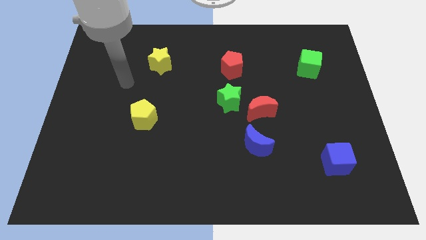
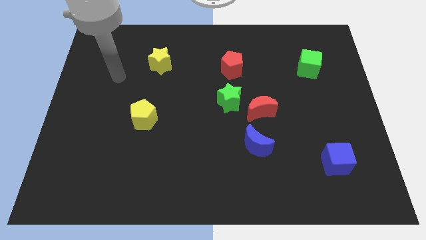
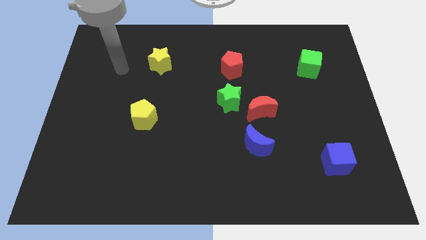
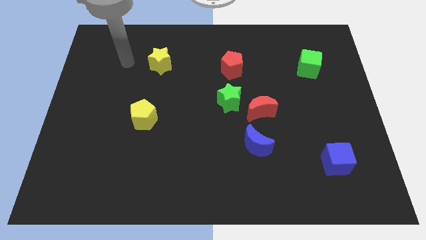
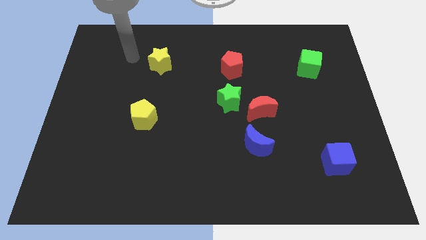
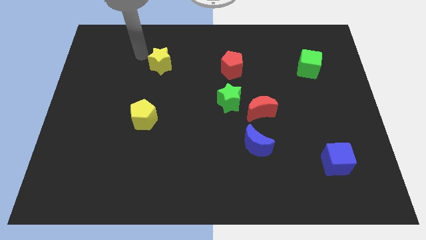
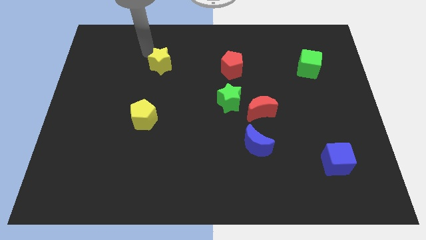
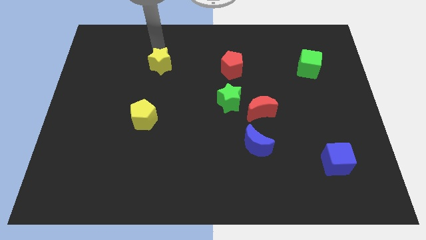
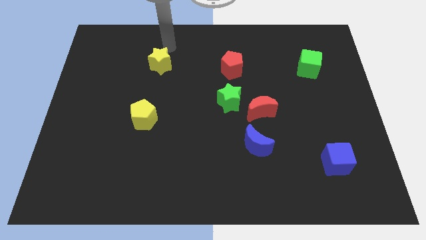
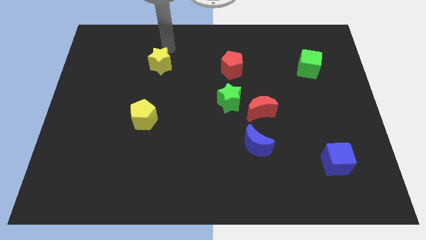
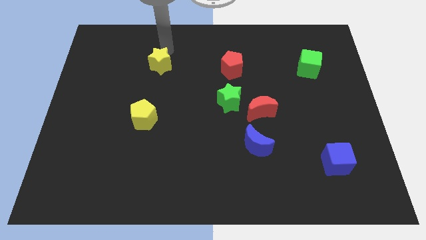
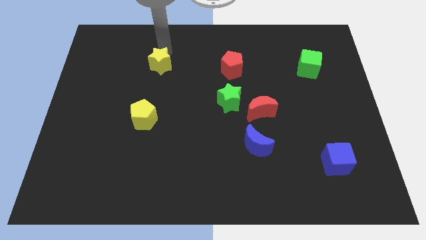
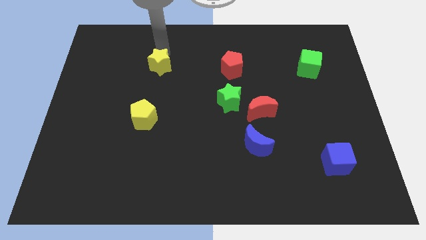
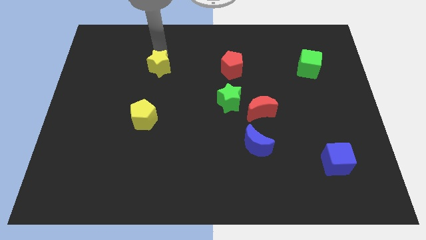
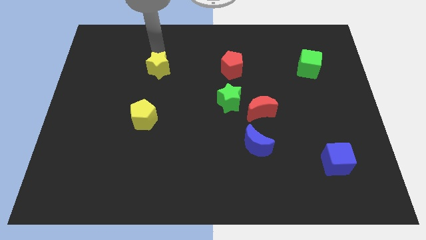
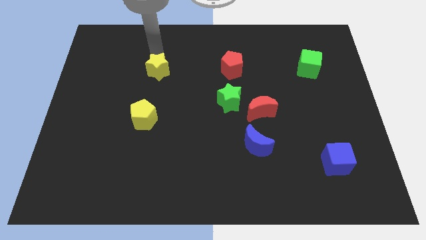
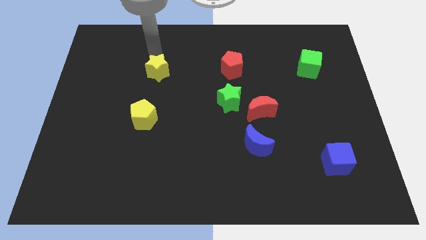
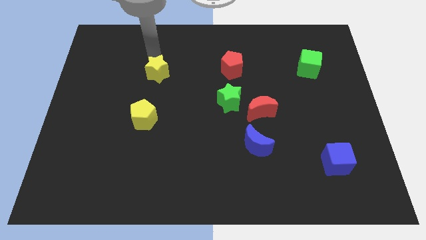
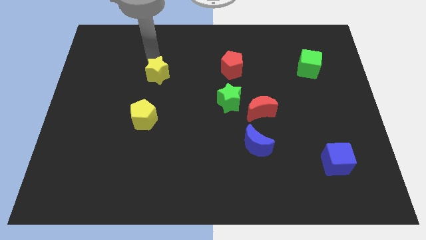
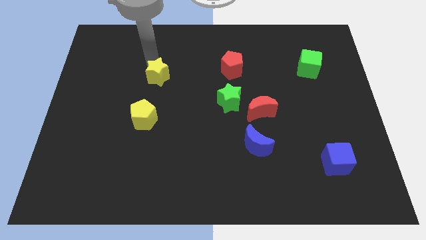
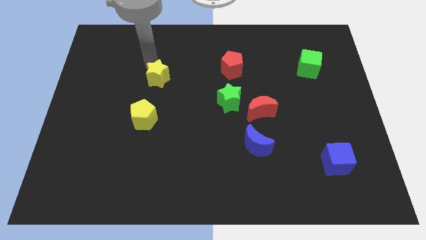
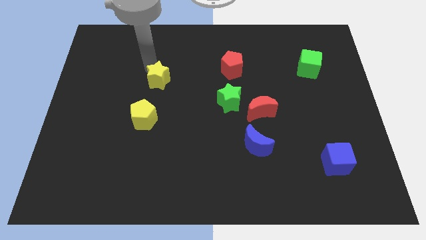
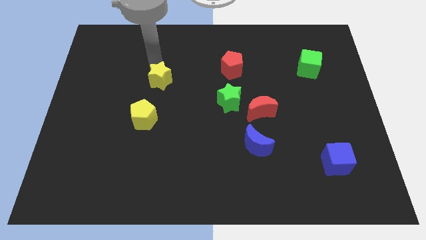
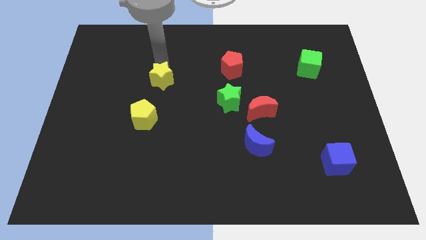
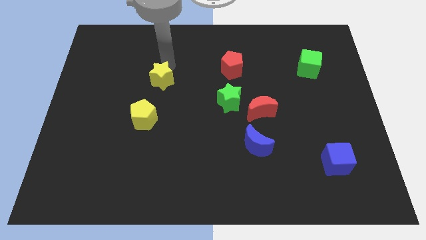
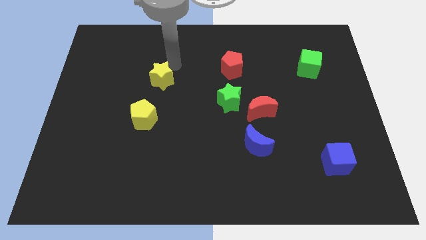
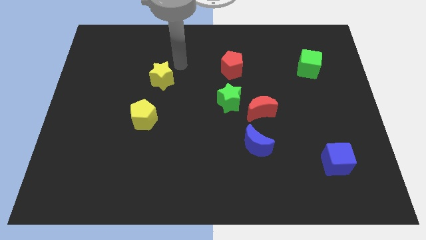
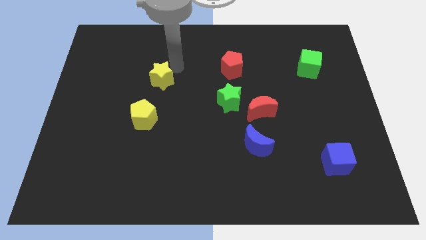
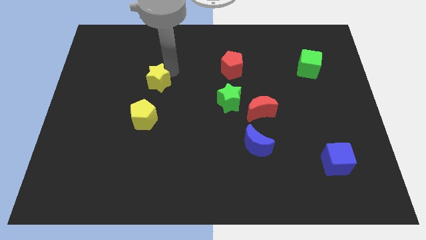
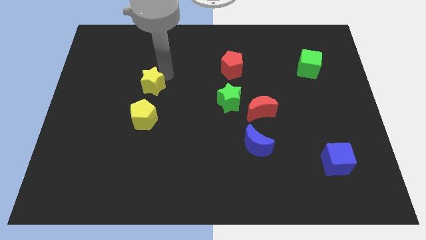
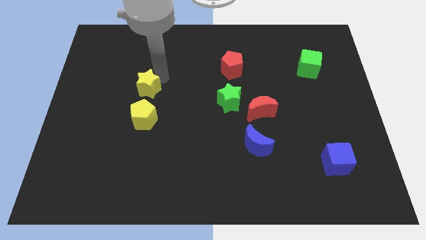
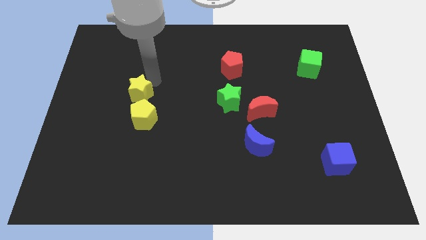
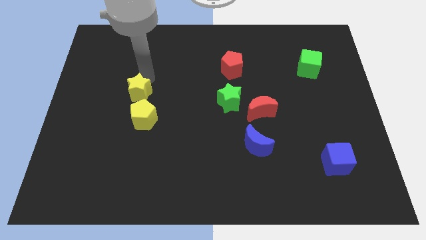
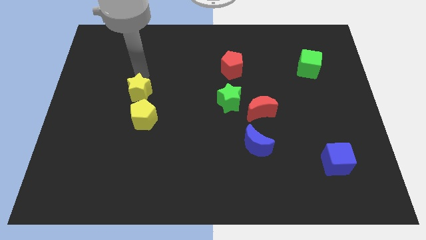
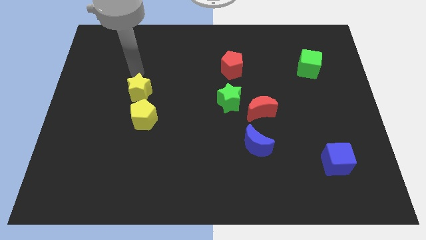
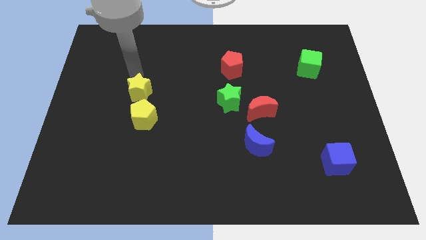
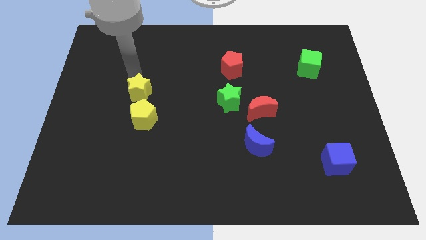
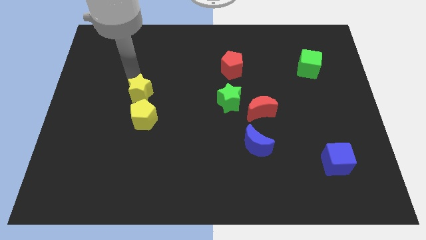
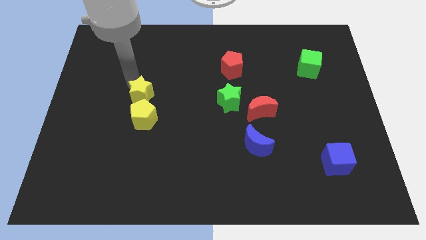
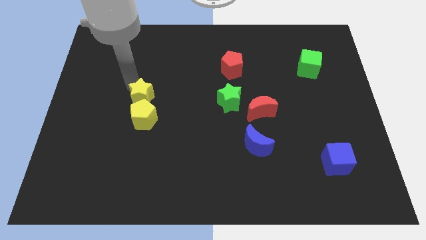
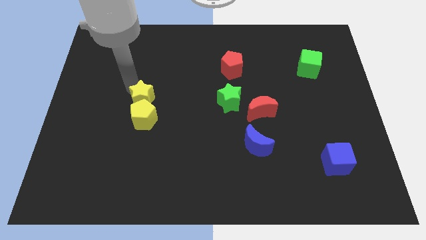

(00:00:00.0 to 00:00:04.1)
push the yellow star to the yellow pentagon

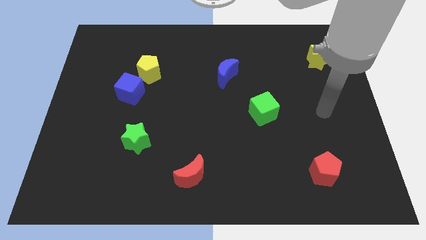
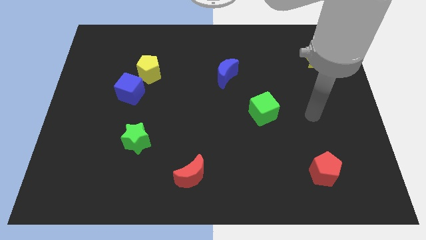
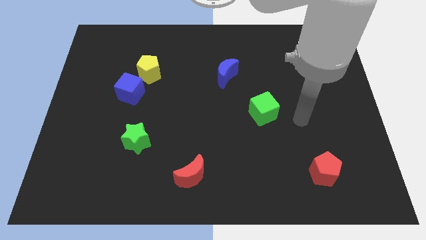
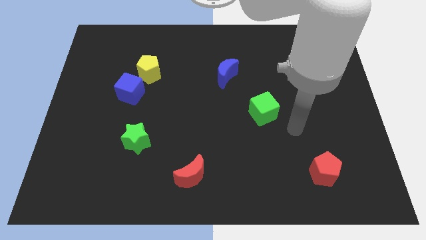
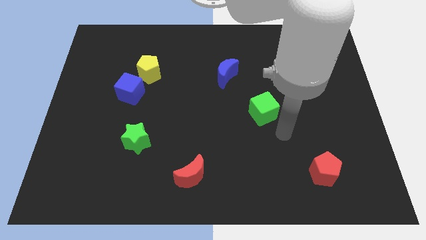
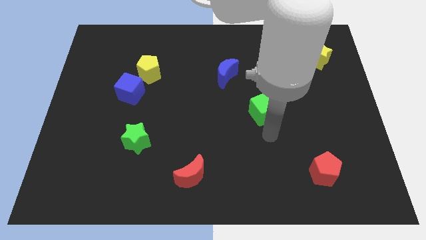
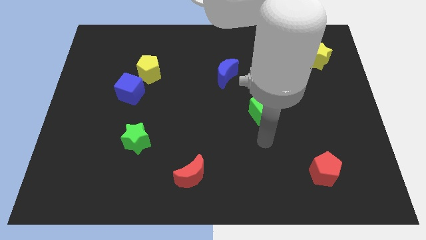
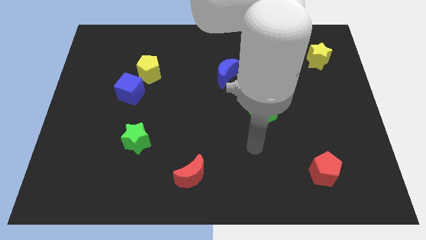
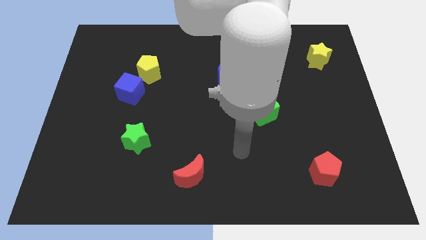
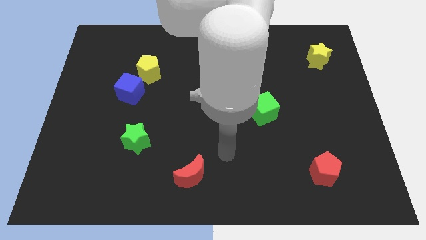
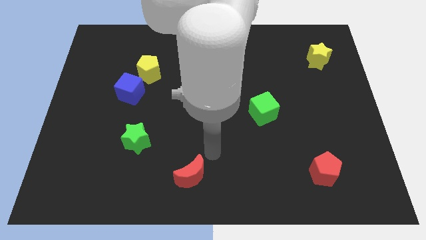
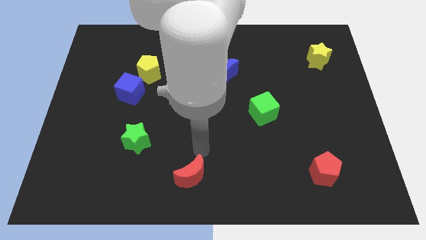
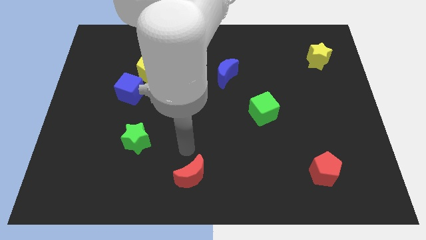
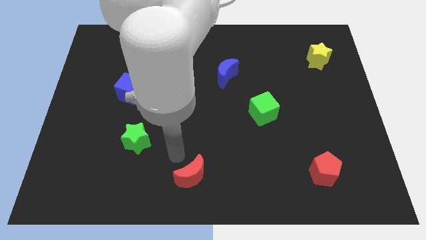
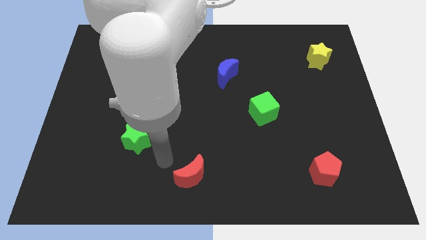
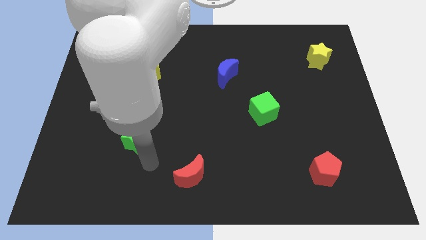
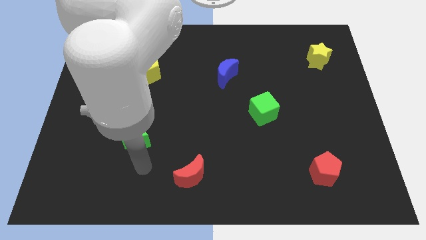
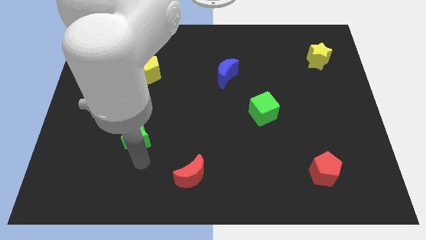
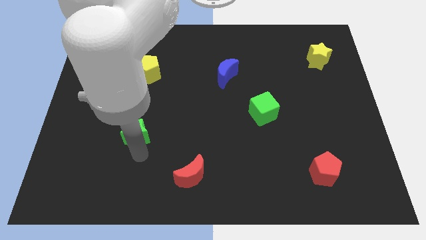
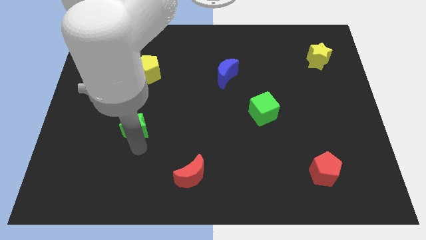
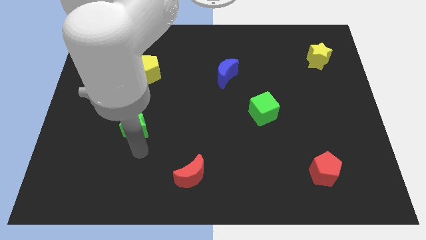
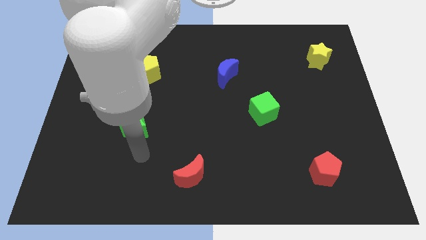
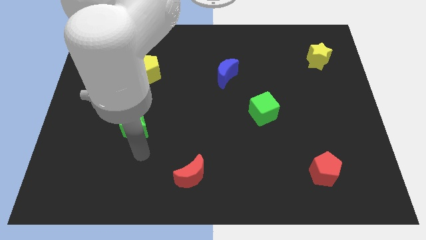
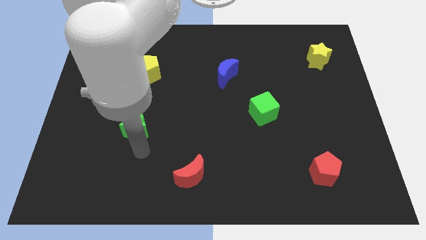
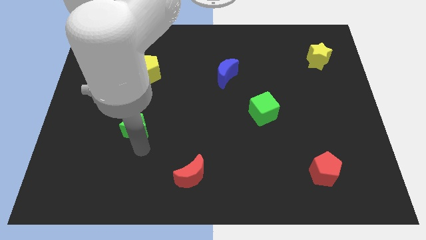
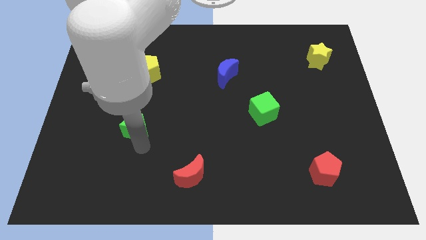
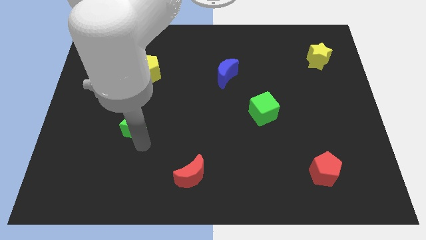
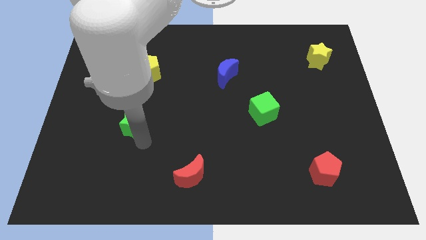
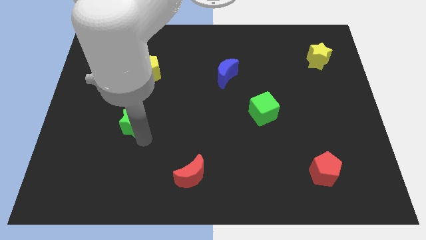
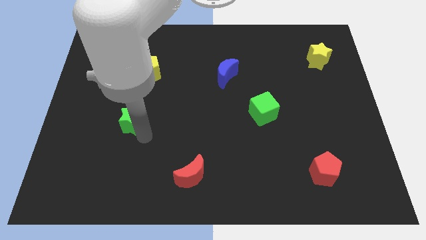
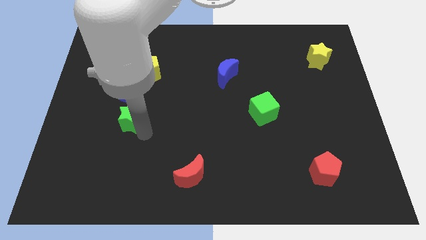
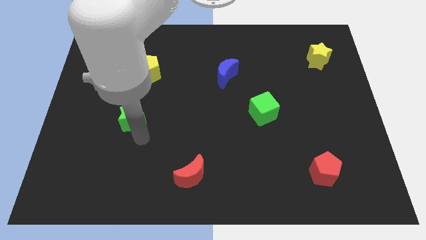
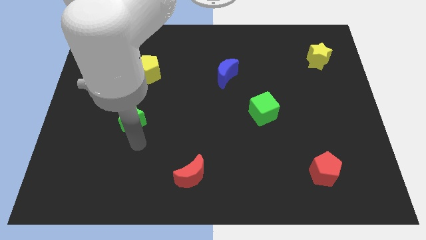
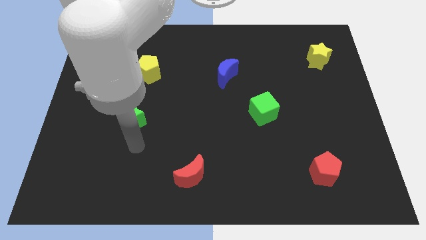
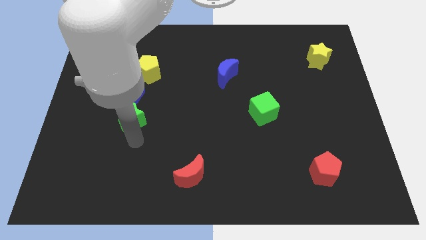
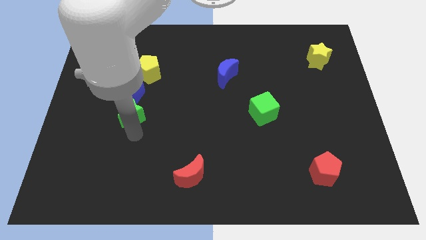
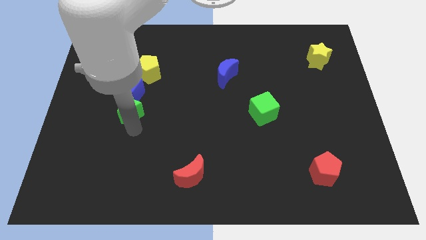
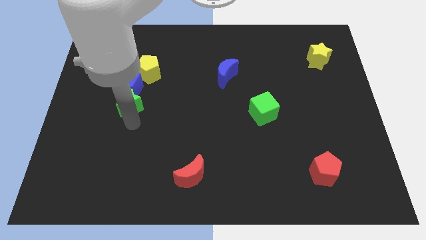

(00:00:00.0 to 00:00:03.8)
put the green star next to the blue cube
